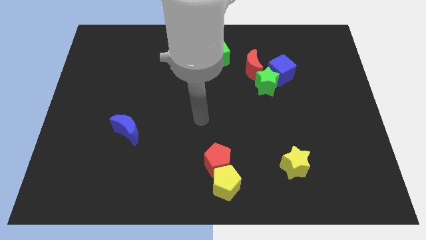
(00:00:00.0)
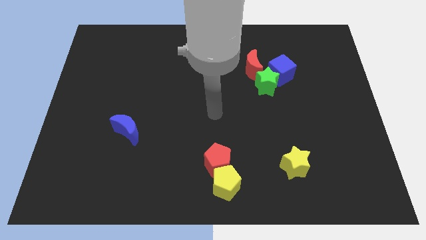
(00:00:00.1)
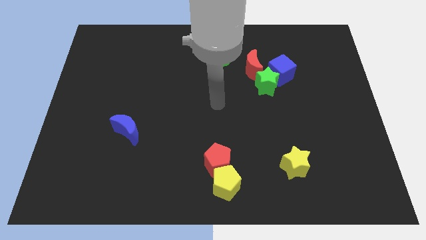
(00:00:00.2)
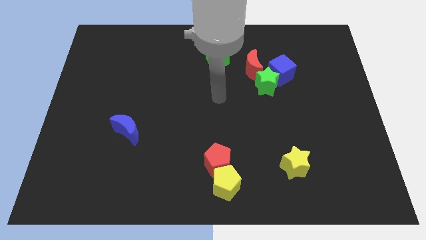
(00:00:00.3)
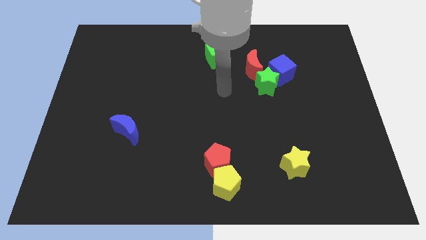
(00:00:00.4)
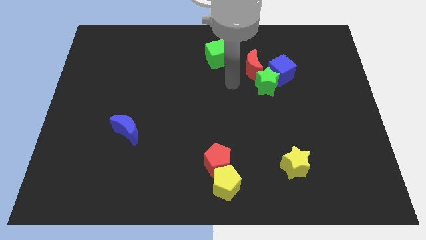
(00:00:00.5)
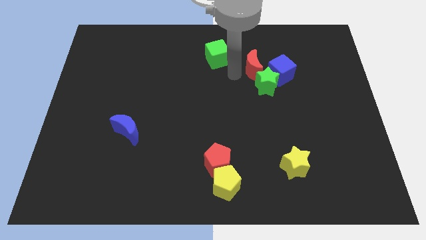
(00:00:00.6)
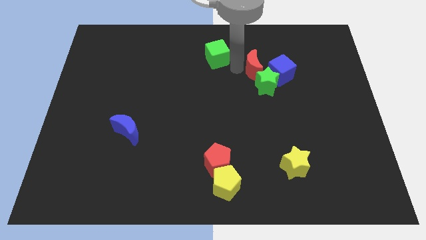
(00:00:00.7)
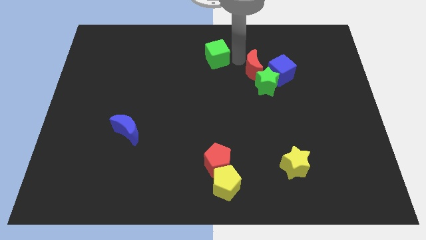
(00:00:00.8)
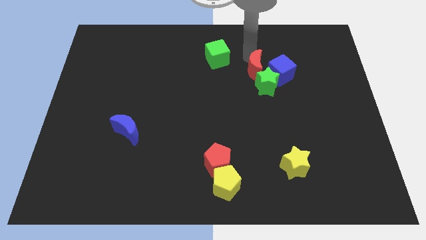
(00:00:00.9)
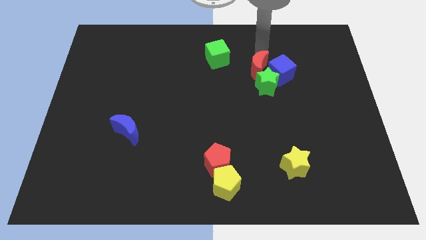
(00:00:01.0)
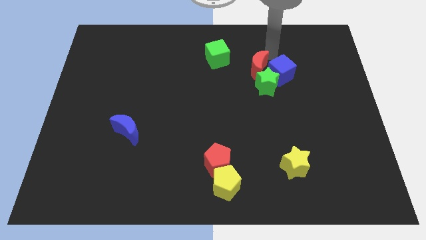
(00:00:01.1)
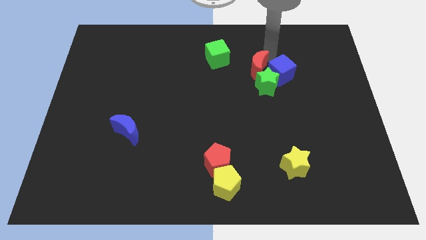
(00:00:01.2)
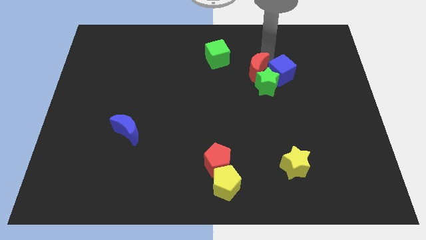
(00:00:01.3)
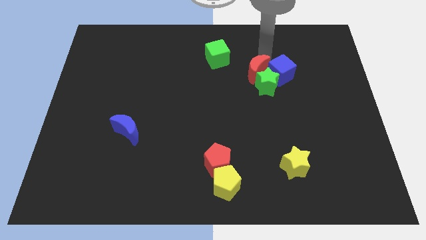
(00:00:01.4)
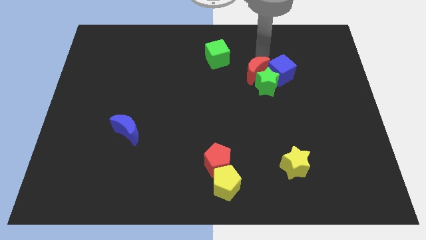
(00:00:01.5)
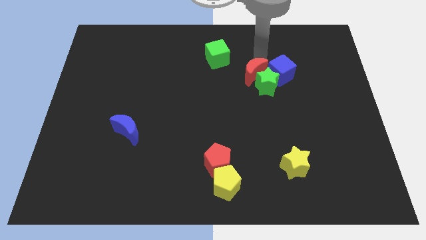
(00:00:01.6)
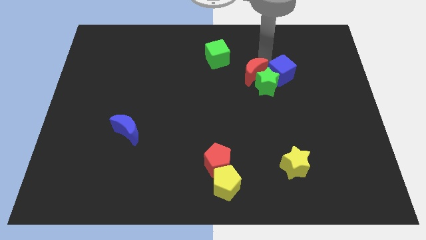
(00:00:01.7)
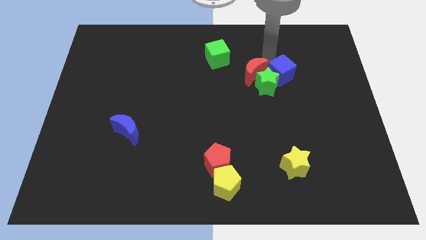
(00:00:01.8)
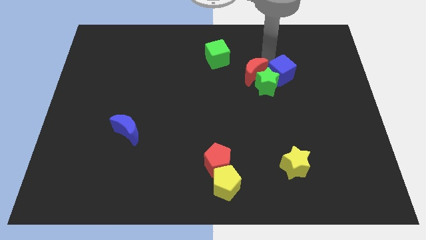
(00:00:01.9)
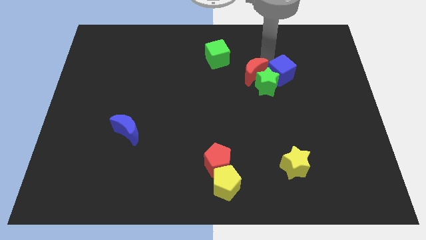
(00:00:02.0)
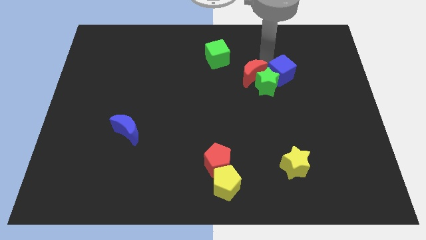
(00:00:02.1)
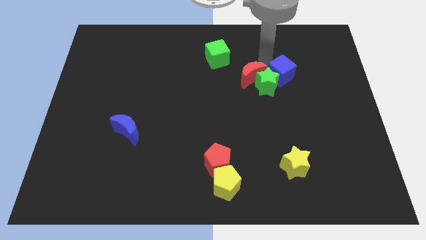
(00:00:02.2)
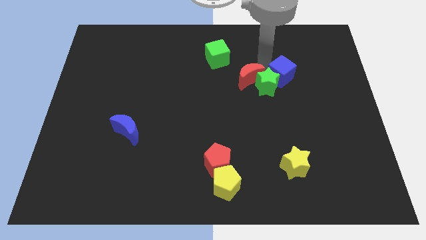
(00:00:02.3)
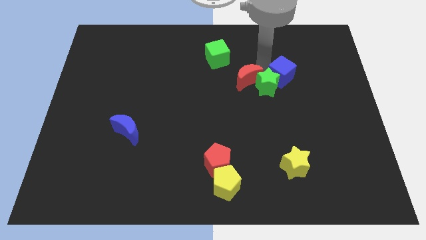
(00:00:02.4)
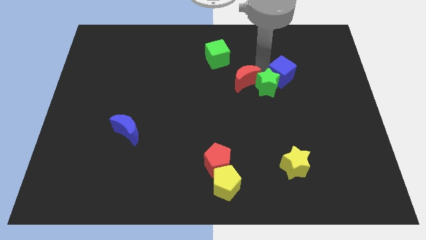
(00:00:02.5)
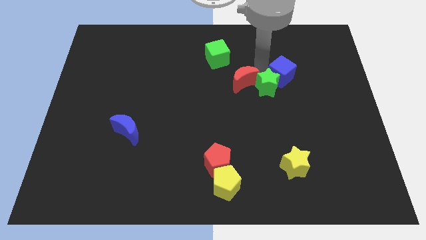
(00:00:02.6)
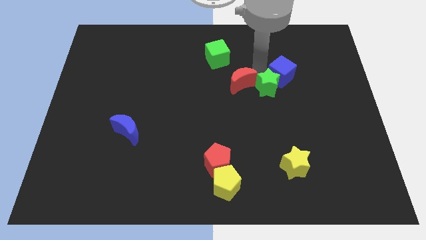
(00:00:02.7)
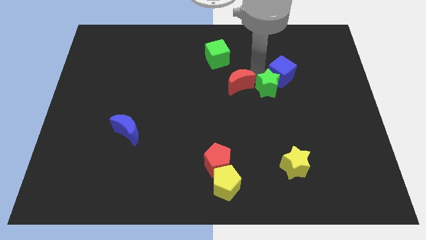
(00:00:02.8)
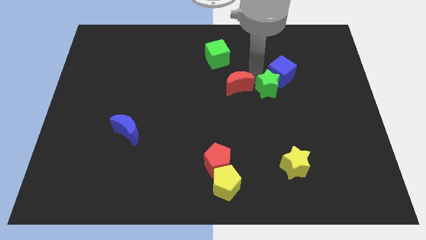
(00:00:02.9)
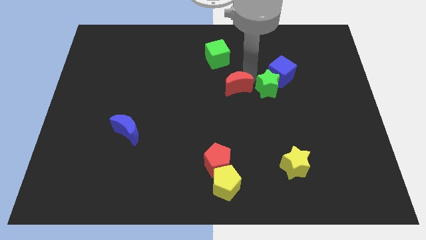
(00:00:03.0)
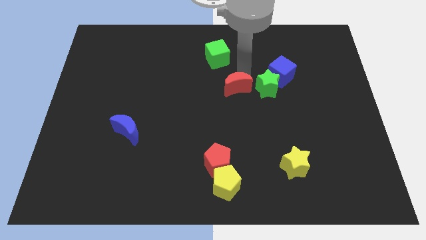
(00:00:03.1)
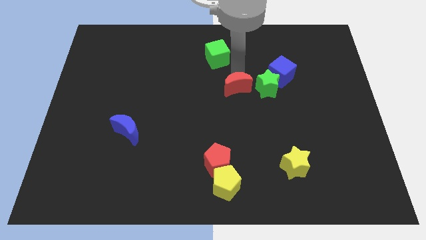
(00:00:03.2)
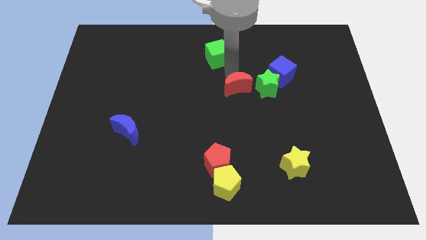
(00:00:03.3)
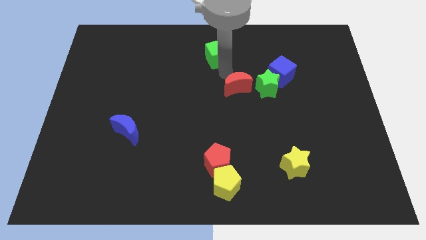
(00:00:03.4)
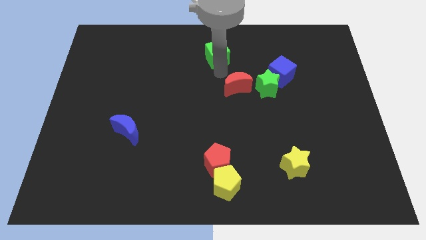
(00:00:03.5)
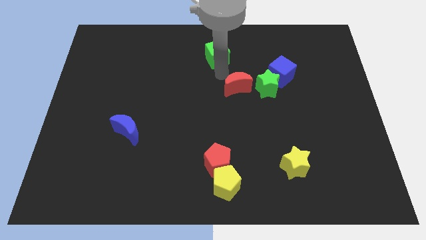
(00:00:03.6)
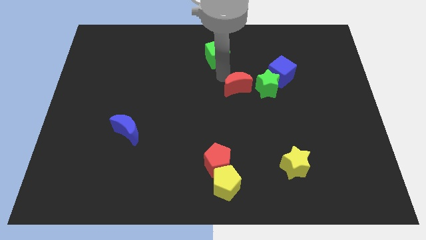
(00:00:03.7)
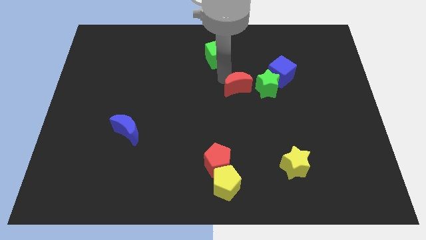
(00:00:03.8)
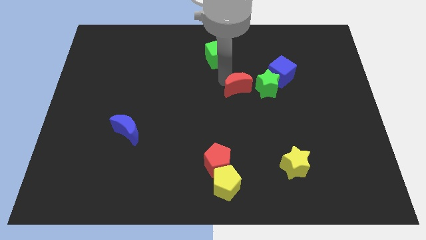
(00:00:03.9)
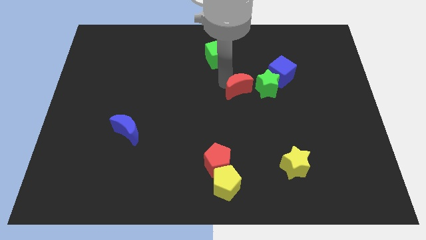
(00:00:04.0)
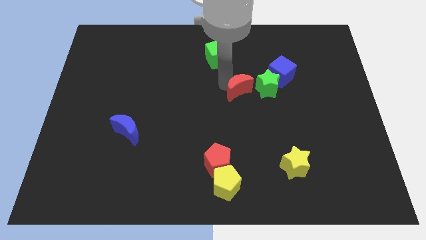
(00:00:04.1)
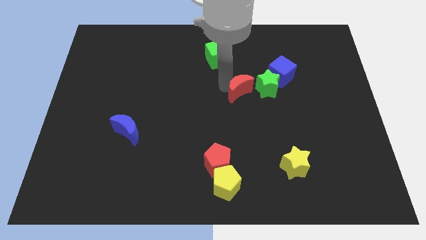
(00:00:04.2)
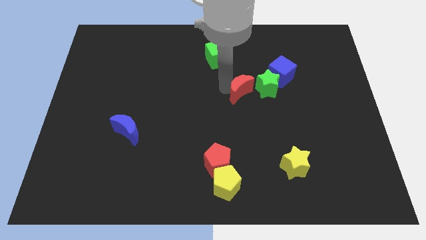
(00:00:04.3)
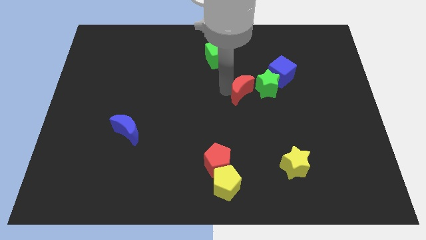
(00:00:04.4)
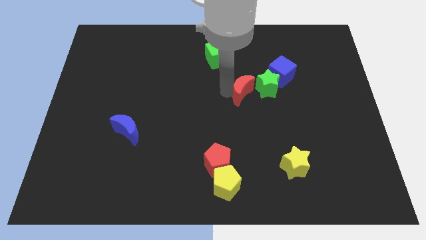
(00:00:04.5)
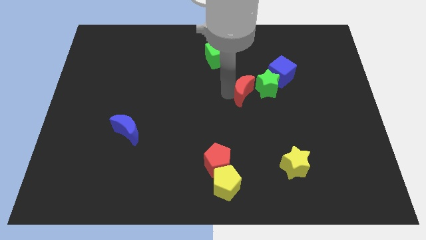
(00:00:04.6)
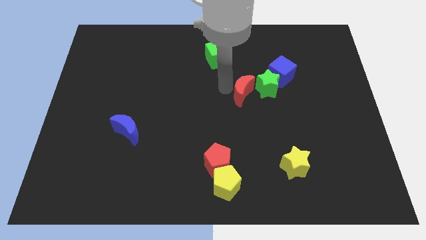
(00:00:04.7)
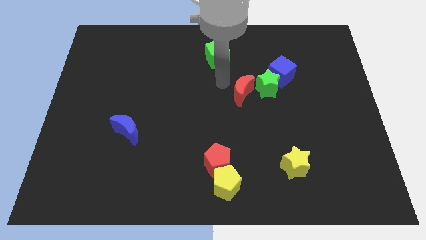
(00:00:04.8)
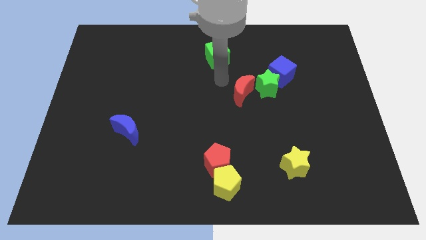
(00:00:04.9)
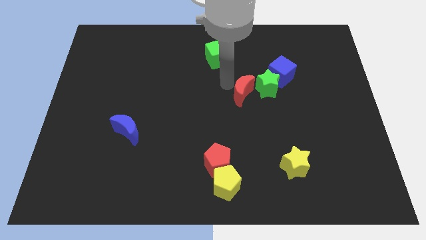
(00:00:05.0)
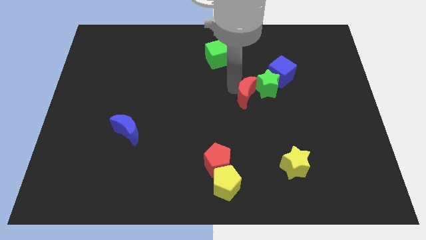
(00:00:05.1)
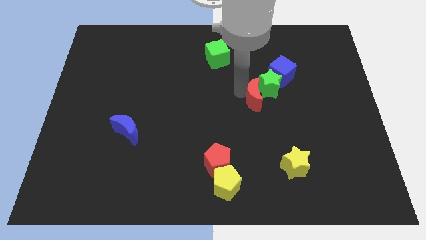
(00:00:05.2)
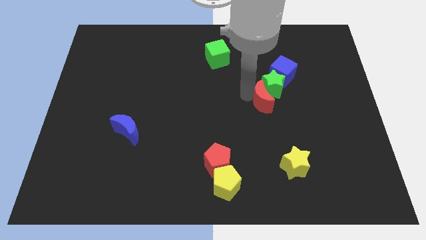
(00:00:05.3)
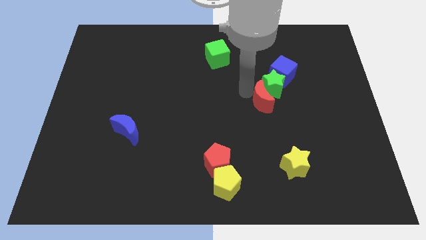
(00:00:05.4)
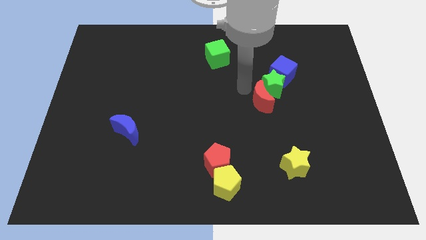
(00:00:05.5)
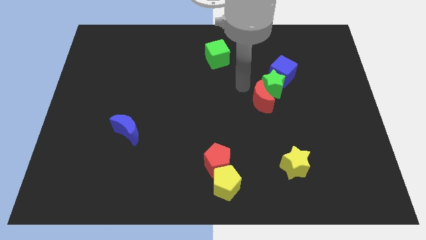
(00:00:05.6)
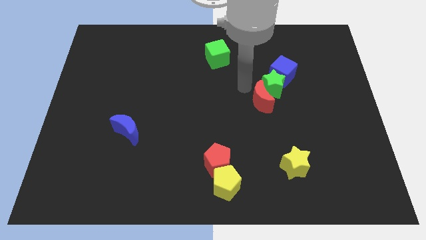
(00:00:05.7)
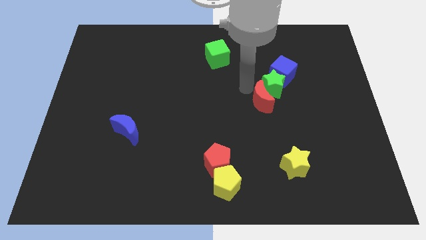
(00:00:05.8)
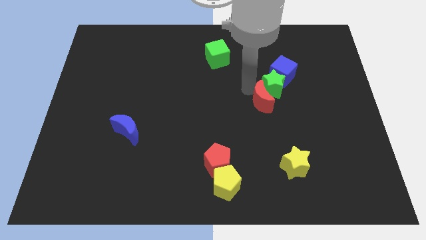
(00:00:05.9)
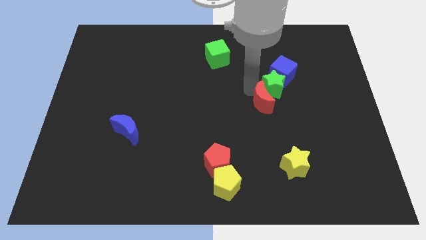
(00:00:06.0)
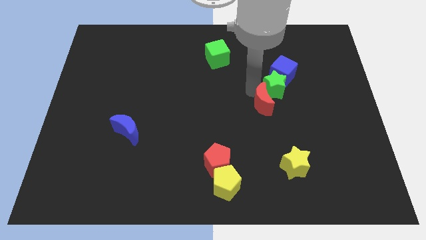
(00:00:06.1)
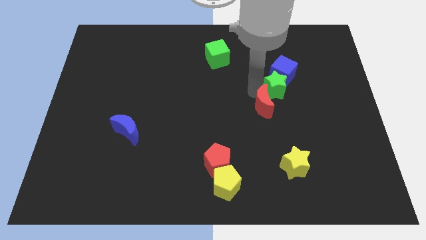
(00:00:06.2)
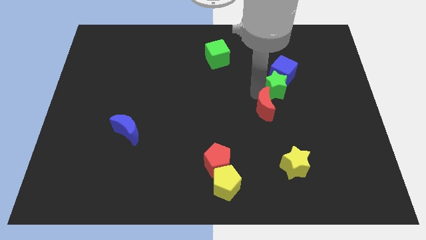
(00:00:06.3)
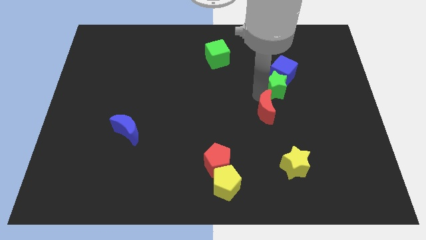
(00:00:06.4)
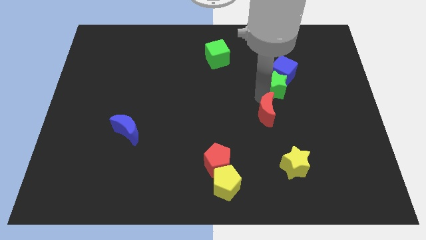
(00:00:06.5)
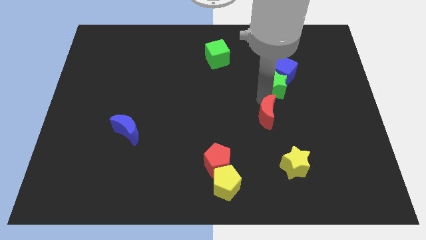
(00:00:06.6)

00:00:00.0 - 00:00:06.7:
push the red moon to the top side of the yellow star

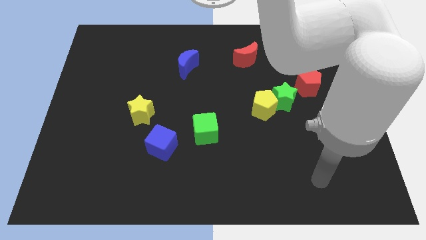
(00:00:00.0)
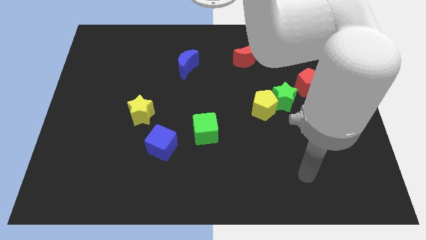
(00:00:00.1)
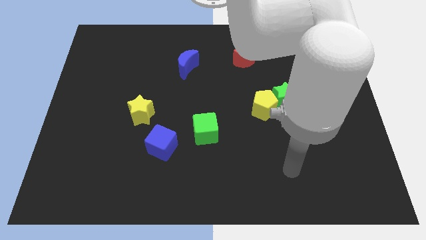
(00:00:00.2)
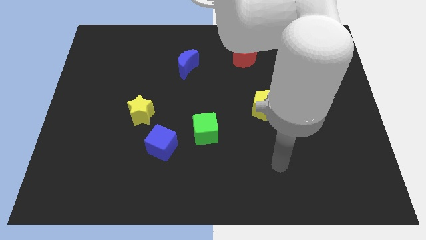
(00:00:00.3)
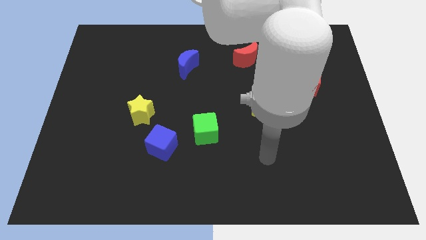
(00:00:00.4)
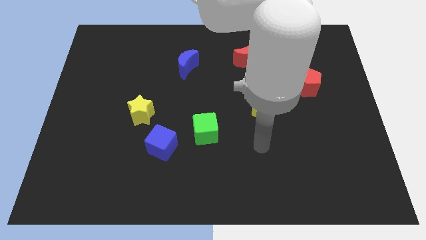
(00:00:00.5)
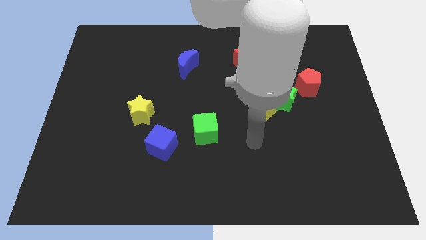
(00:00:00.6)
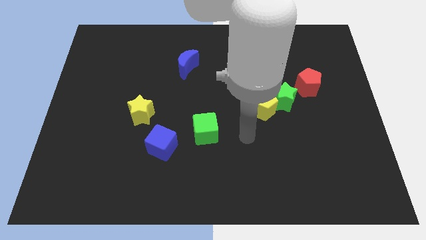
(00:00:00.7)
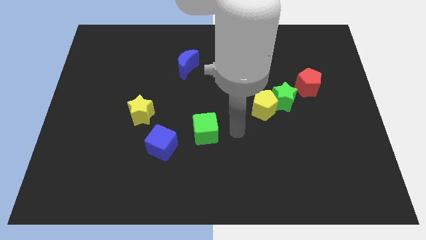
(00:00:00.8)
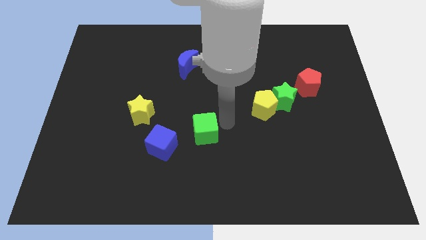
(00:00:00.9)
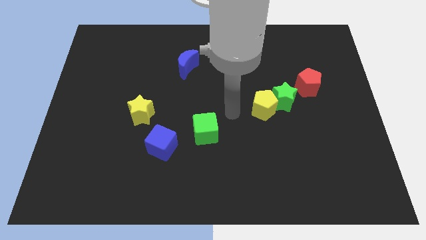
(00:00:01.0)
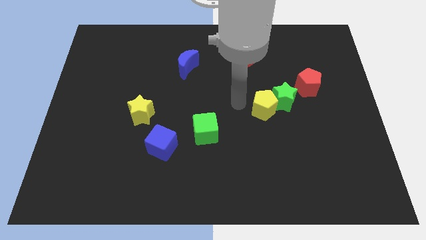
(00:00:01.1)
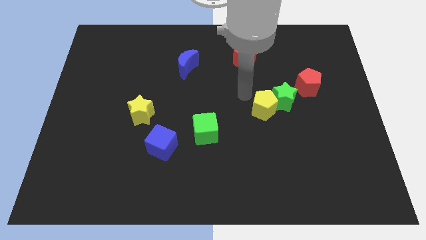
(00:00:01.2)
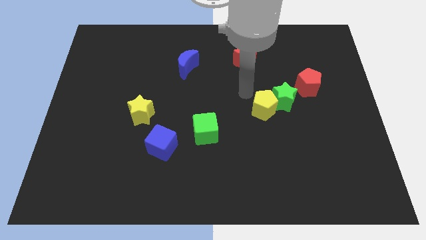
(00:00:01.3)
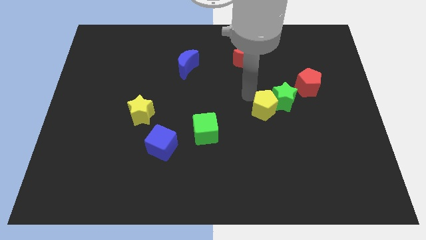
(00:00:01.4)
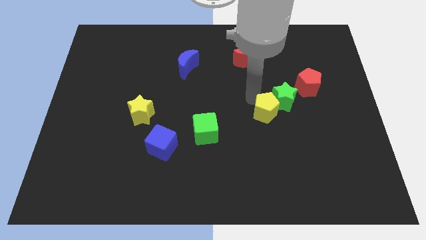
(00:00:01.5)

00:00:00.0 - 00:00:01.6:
slide the yellow pentagon below the green star
